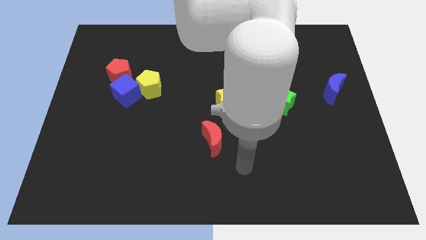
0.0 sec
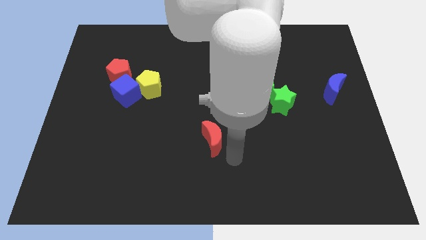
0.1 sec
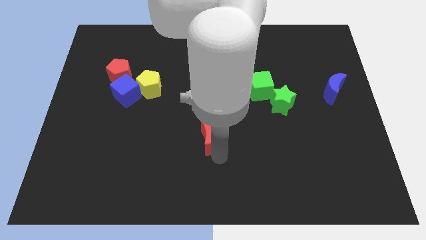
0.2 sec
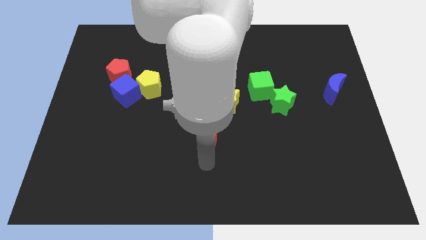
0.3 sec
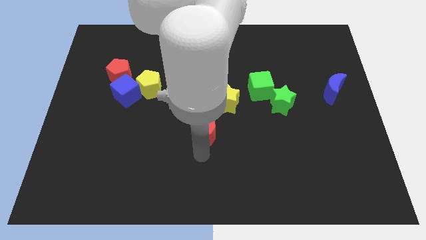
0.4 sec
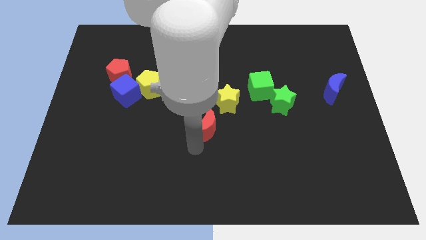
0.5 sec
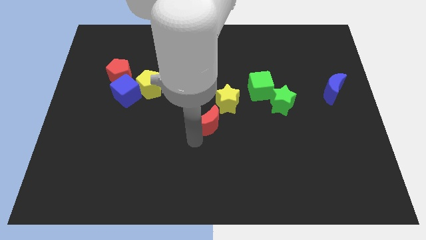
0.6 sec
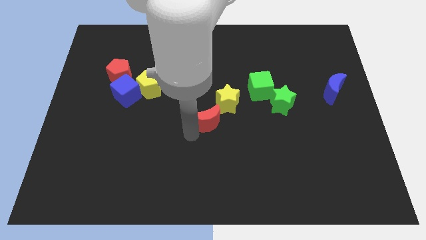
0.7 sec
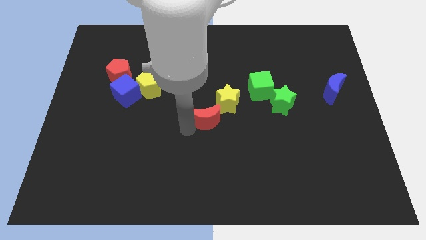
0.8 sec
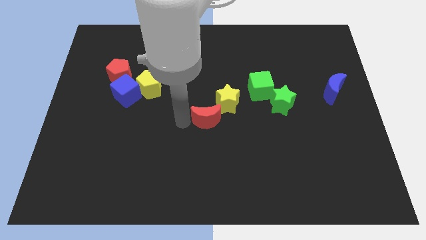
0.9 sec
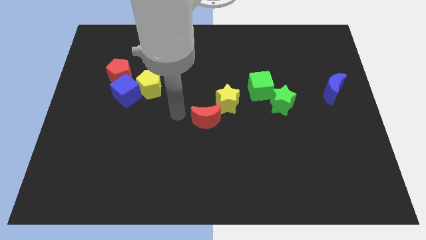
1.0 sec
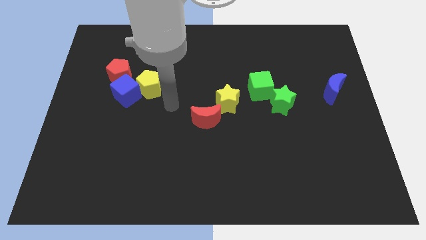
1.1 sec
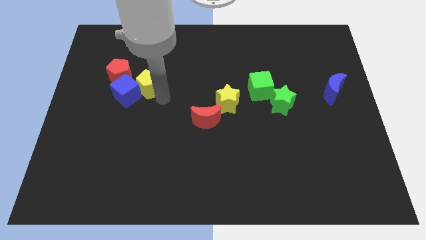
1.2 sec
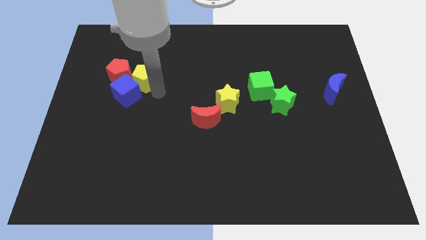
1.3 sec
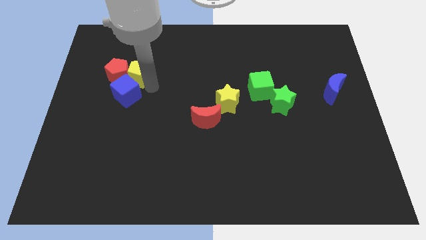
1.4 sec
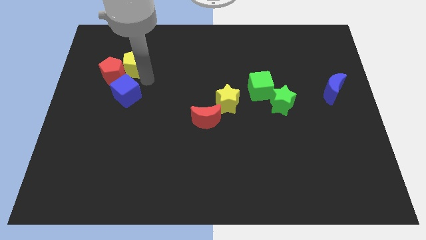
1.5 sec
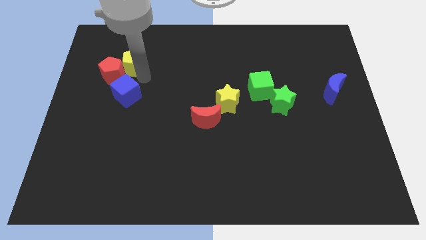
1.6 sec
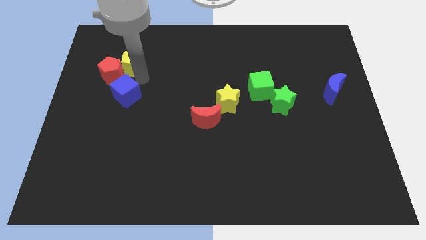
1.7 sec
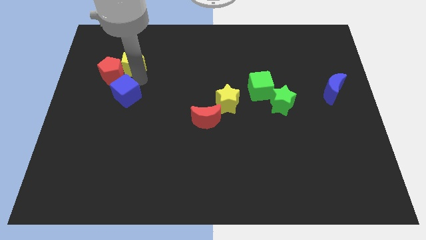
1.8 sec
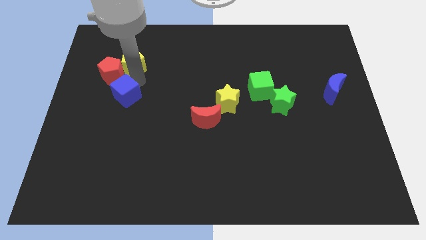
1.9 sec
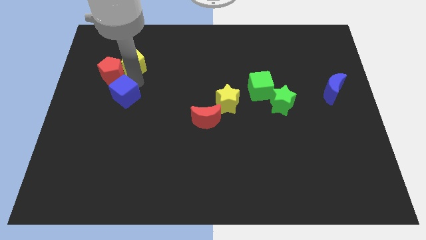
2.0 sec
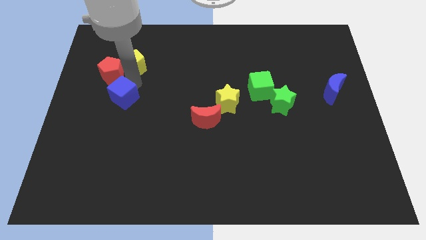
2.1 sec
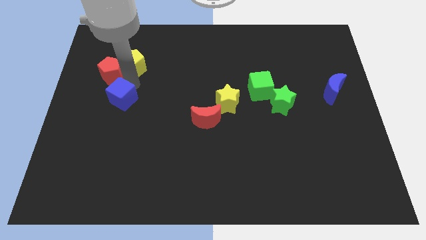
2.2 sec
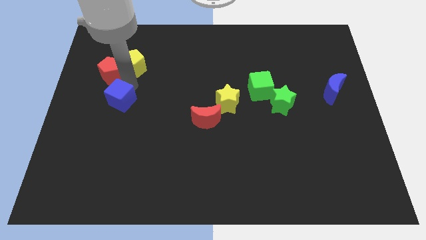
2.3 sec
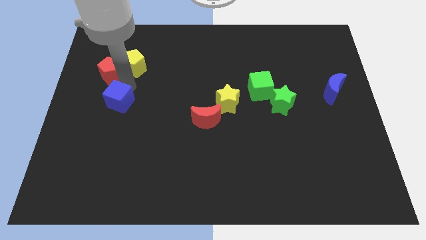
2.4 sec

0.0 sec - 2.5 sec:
separate the blue cube from the yellow pentagon and red pentagon

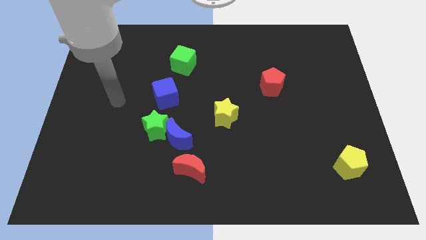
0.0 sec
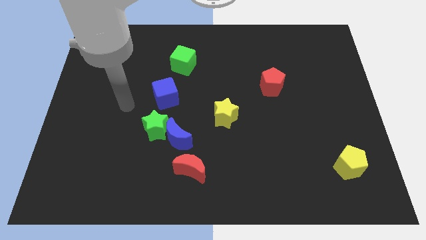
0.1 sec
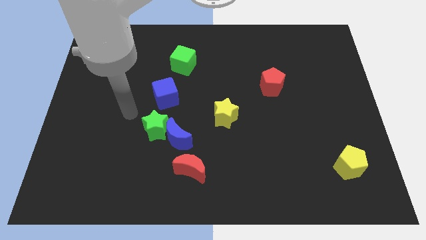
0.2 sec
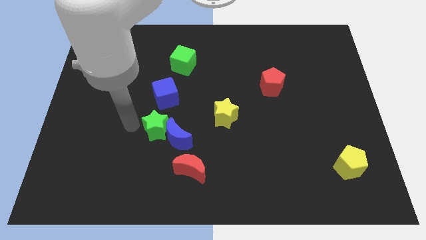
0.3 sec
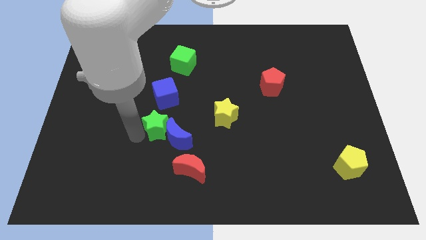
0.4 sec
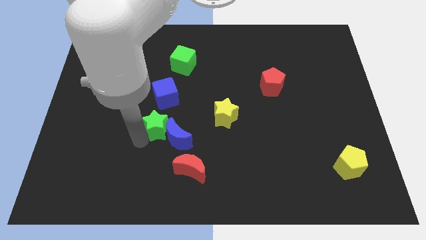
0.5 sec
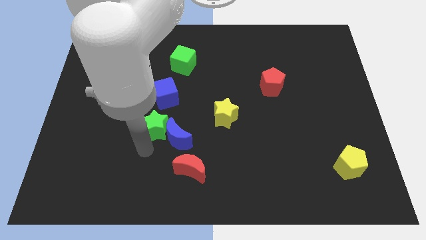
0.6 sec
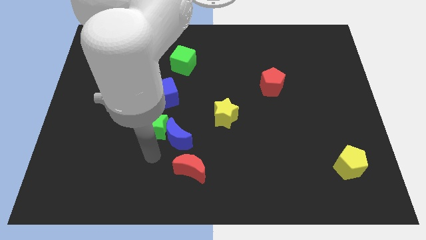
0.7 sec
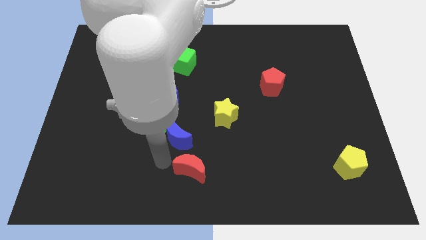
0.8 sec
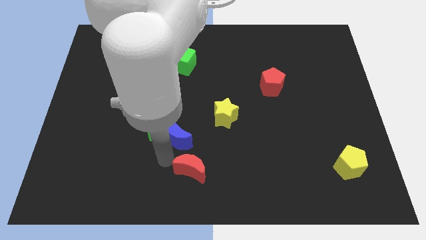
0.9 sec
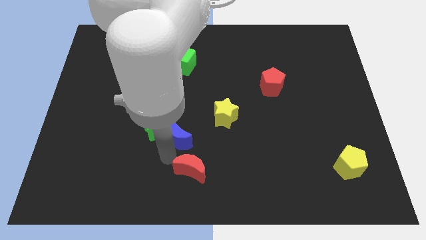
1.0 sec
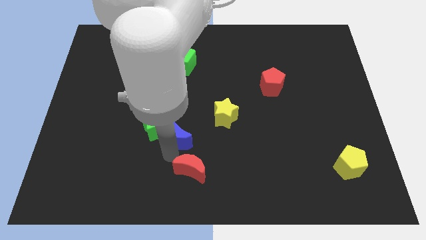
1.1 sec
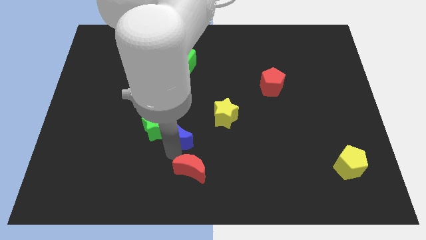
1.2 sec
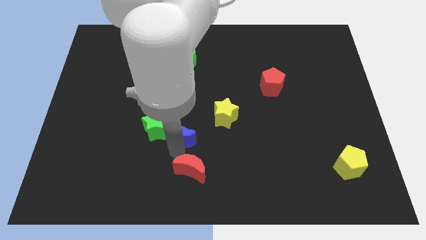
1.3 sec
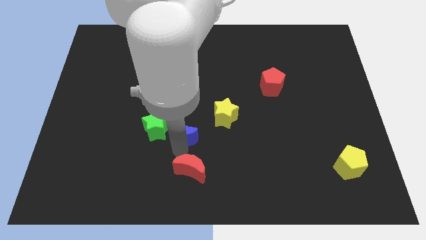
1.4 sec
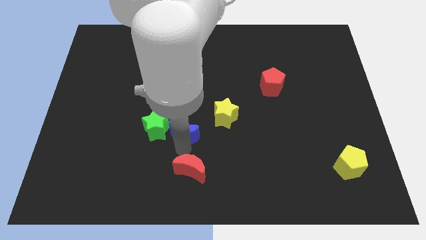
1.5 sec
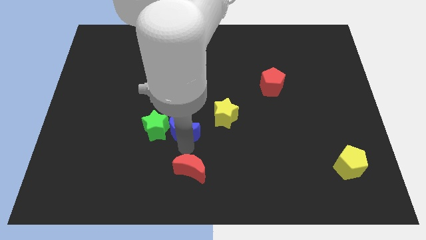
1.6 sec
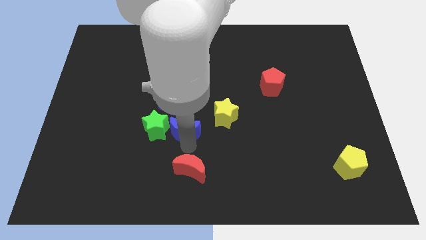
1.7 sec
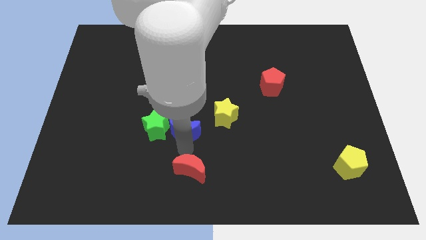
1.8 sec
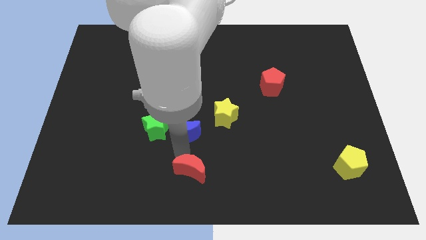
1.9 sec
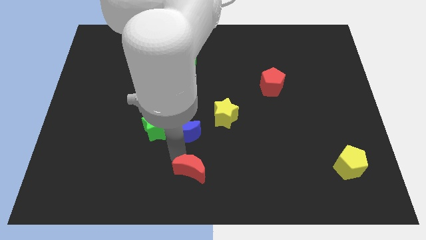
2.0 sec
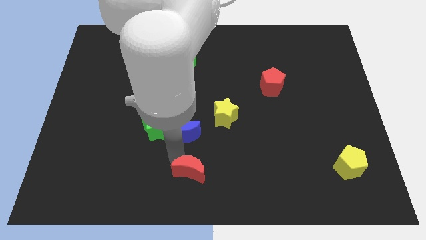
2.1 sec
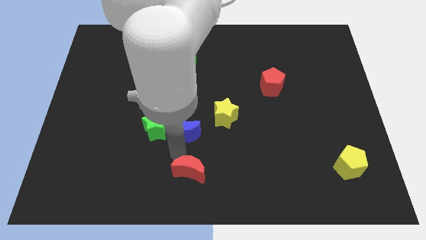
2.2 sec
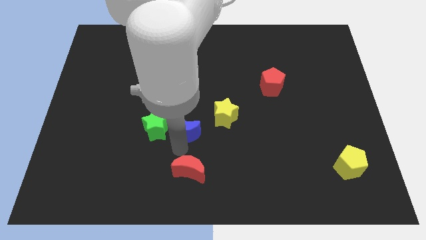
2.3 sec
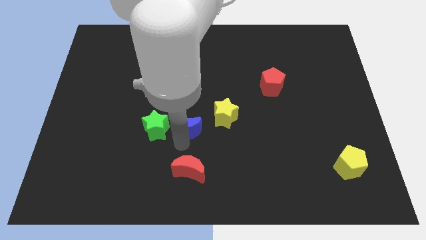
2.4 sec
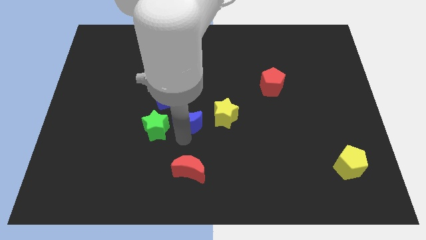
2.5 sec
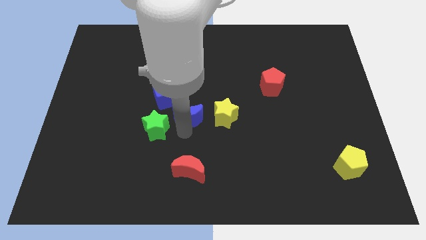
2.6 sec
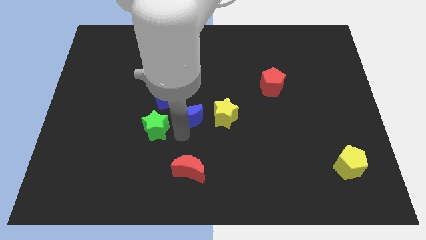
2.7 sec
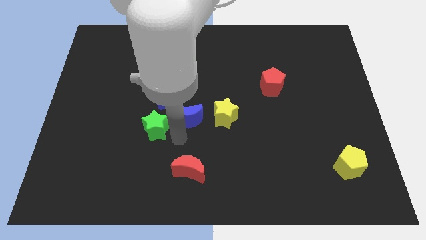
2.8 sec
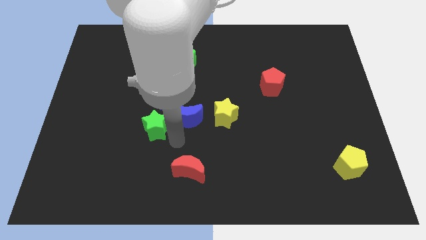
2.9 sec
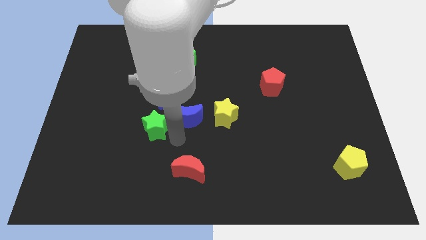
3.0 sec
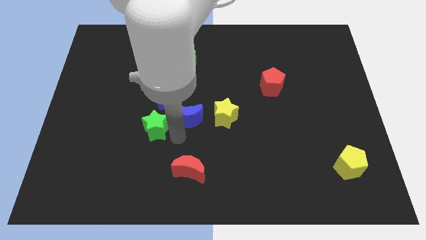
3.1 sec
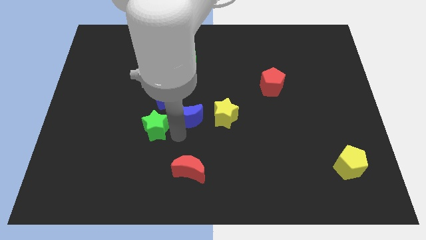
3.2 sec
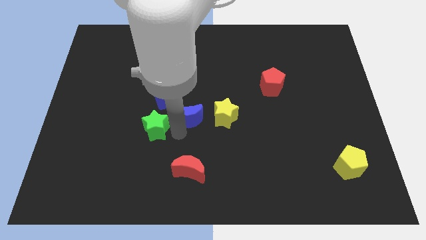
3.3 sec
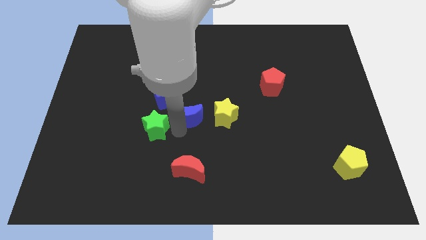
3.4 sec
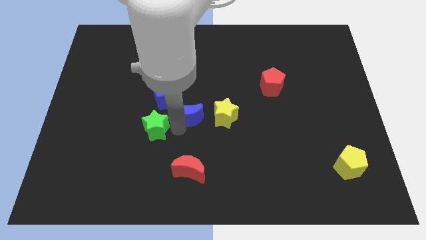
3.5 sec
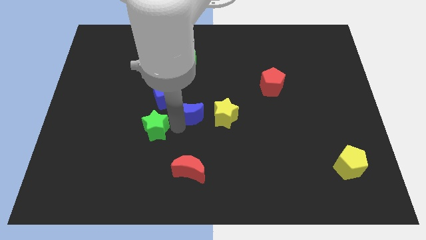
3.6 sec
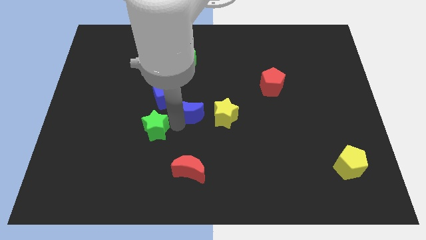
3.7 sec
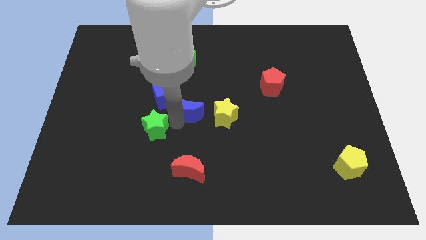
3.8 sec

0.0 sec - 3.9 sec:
separate the blue moon from the green star and red moon

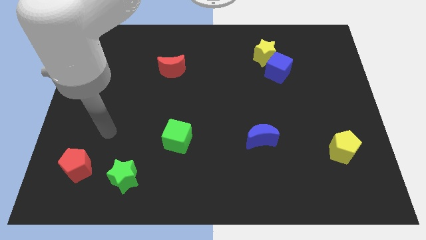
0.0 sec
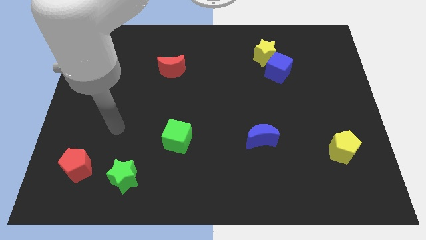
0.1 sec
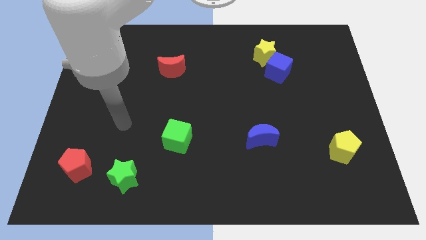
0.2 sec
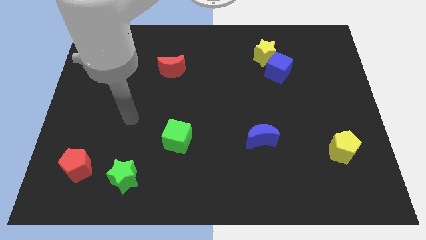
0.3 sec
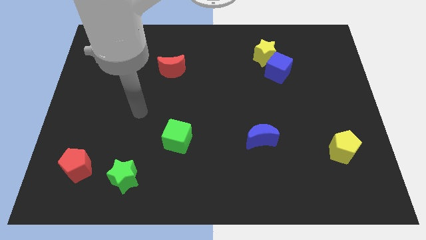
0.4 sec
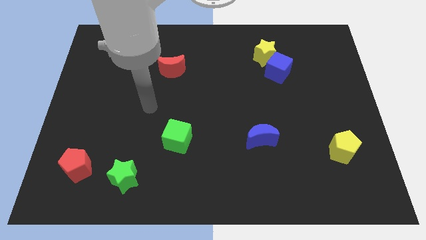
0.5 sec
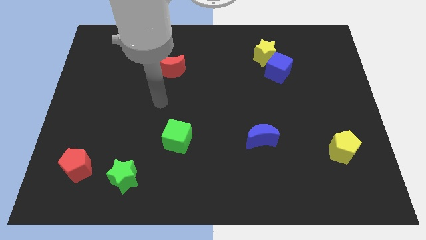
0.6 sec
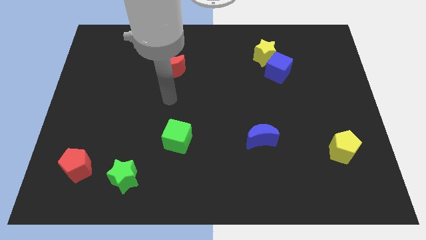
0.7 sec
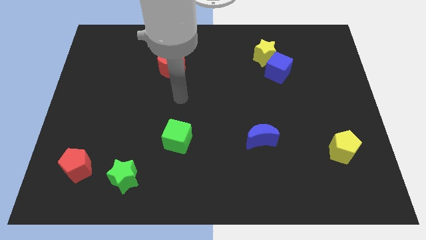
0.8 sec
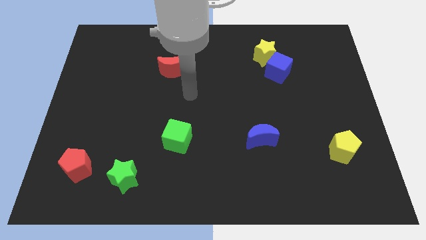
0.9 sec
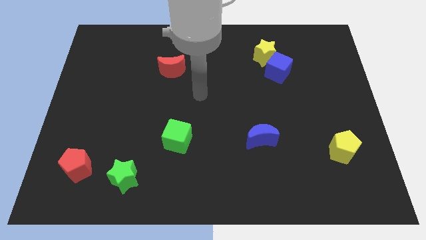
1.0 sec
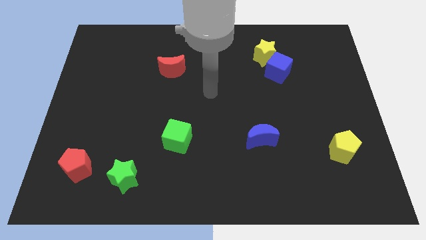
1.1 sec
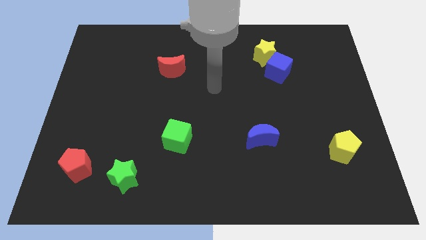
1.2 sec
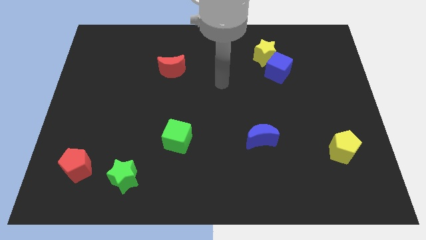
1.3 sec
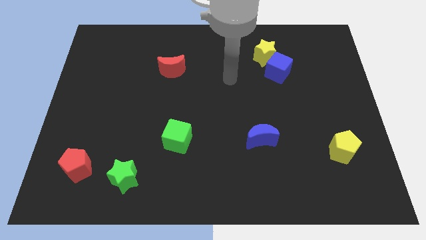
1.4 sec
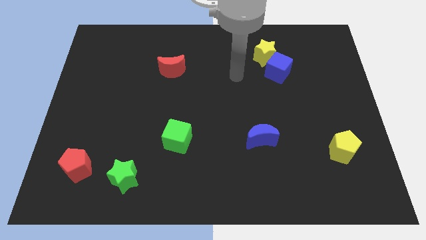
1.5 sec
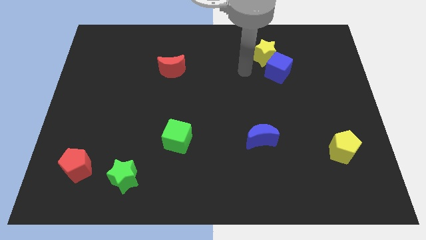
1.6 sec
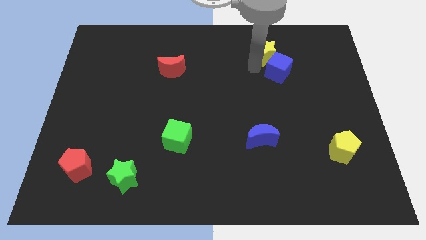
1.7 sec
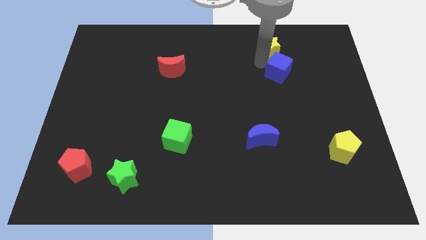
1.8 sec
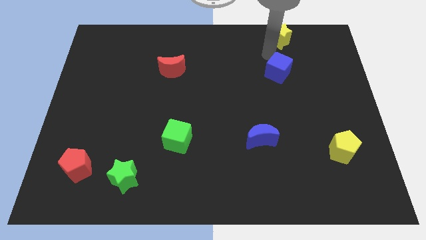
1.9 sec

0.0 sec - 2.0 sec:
pull the blue cube apart from the yellow star

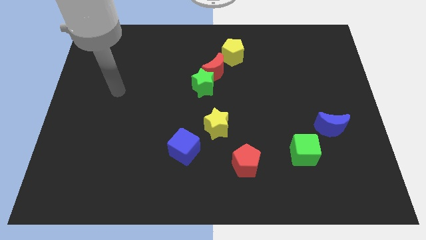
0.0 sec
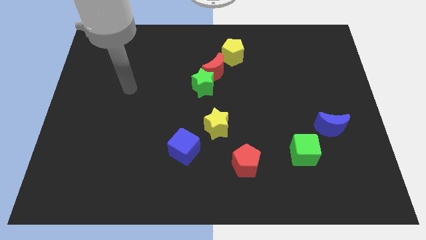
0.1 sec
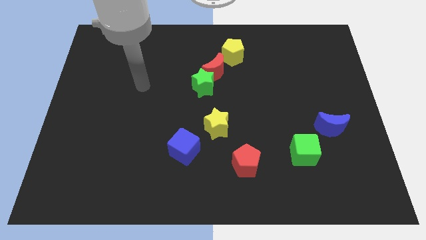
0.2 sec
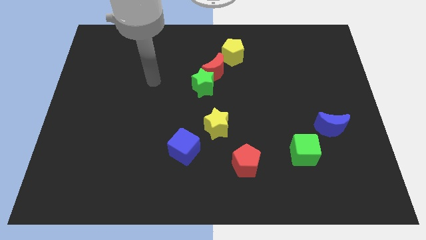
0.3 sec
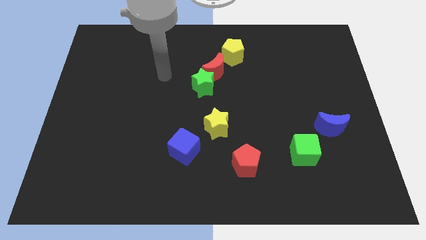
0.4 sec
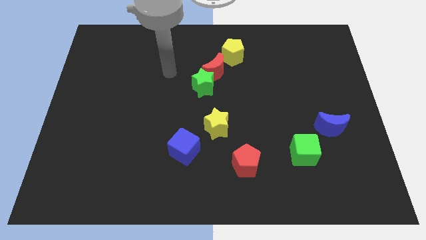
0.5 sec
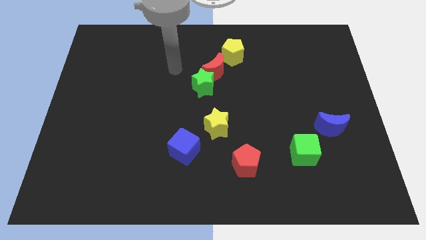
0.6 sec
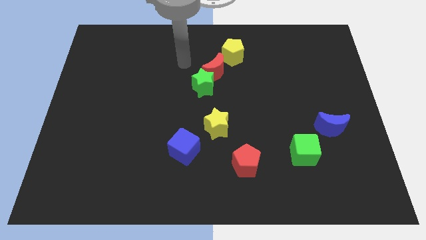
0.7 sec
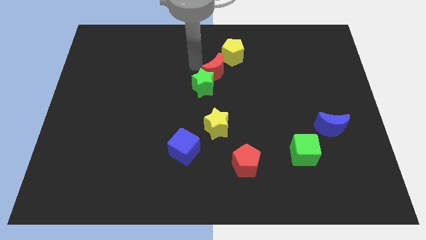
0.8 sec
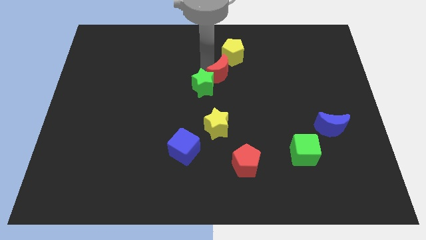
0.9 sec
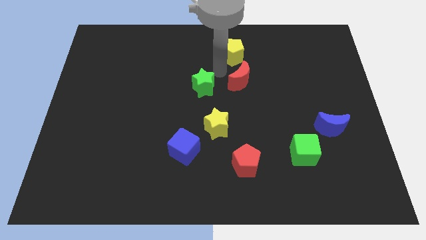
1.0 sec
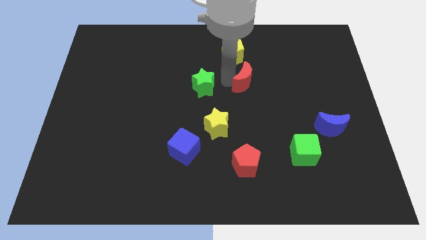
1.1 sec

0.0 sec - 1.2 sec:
move the green star away from the red moon
